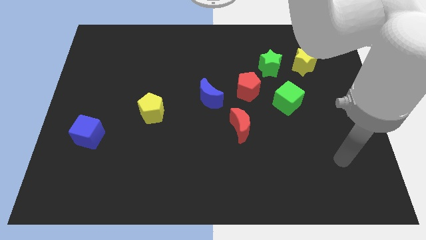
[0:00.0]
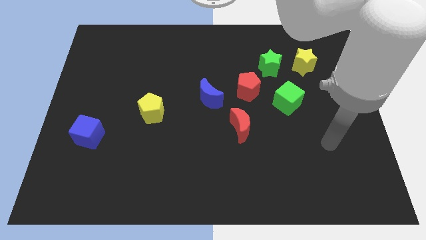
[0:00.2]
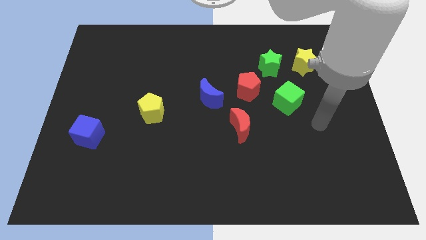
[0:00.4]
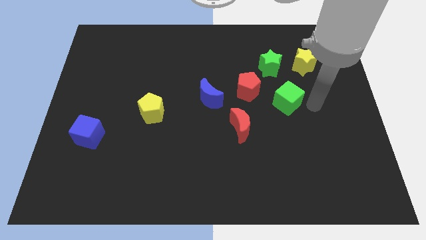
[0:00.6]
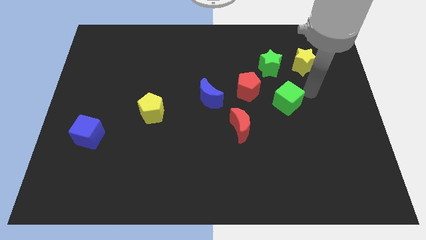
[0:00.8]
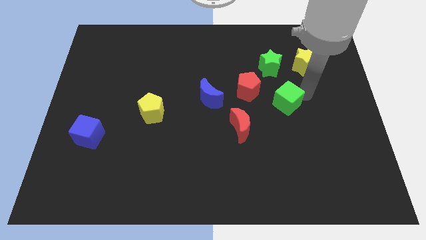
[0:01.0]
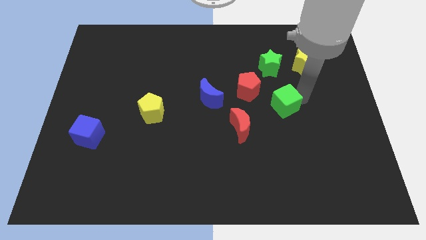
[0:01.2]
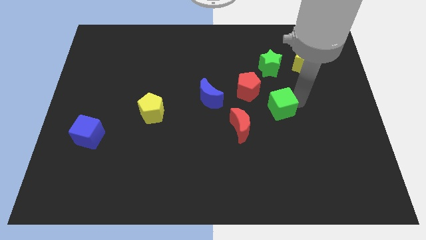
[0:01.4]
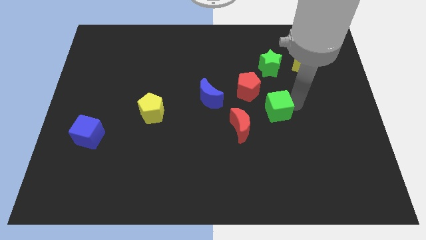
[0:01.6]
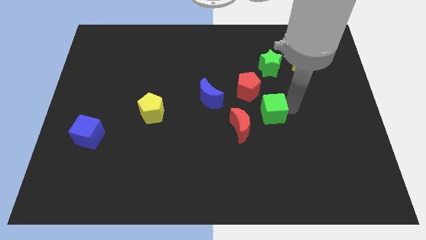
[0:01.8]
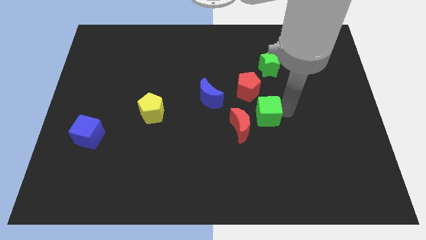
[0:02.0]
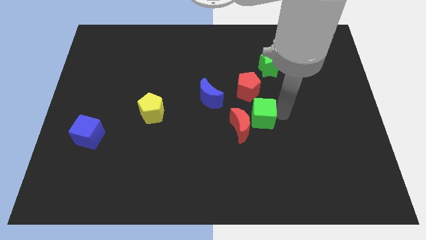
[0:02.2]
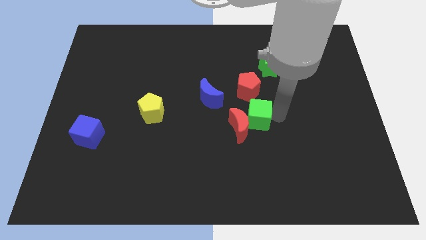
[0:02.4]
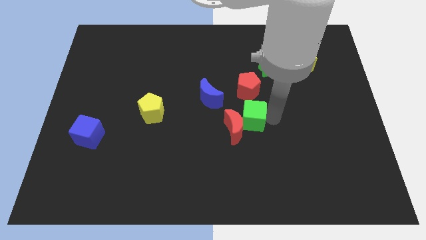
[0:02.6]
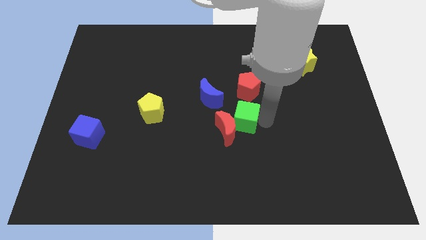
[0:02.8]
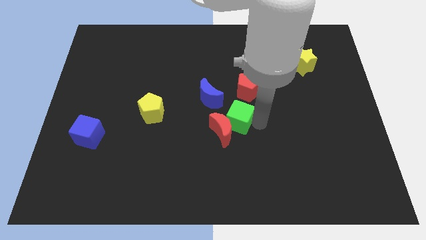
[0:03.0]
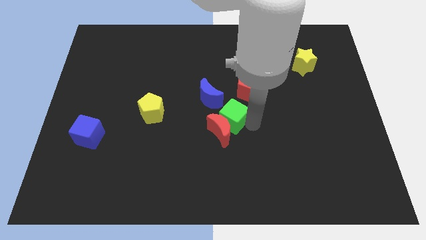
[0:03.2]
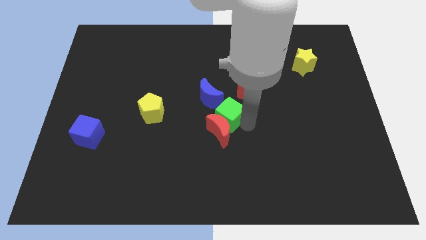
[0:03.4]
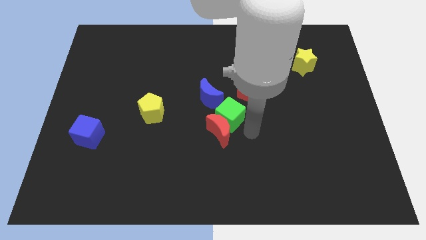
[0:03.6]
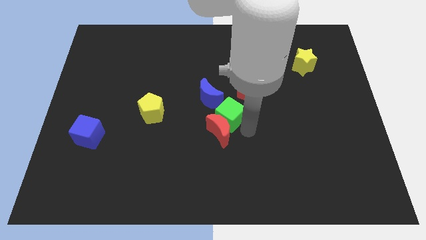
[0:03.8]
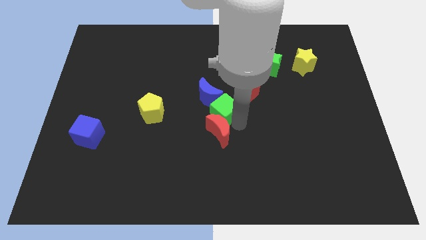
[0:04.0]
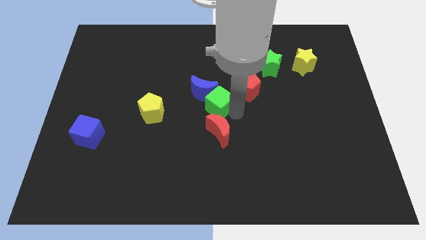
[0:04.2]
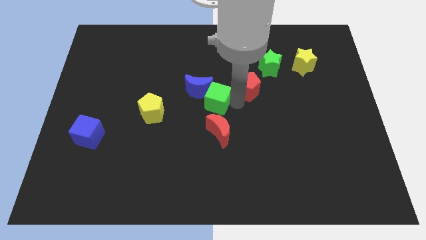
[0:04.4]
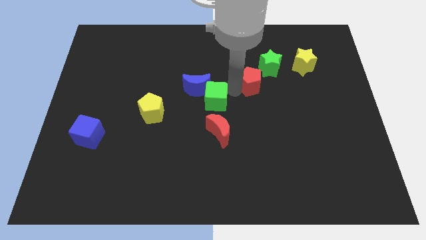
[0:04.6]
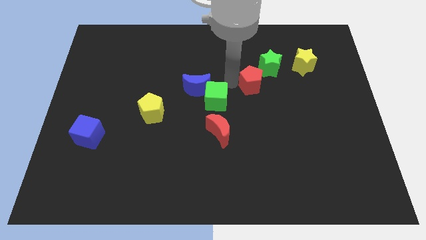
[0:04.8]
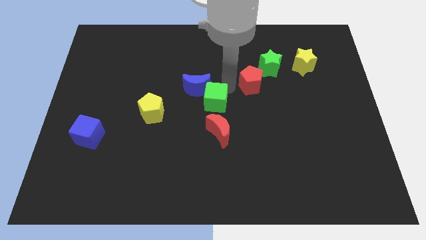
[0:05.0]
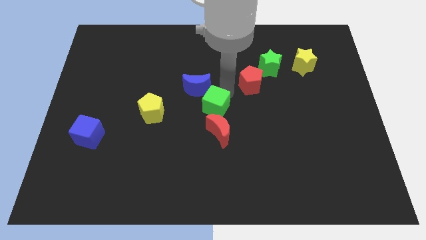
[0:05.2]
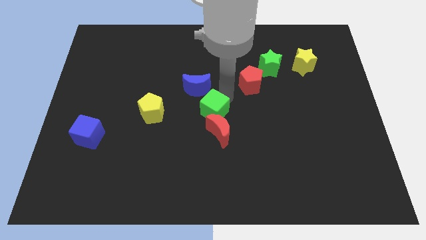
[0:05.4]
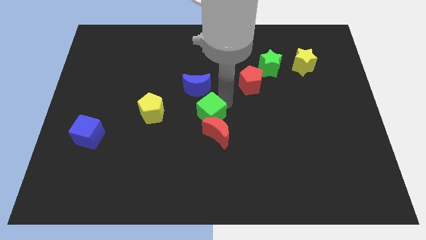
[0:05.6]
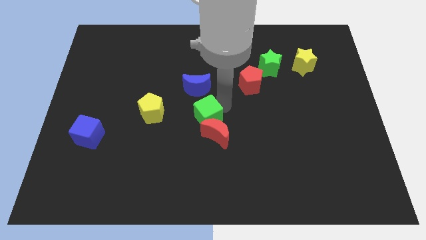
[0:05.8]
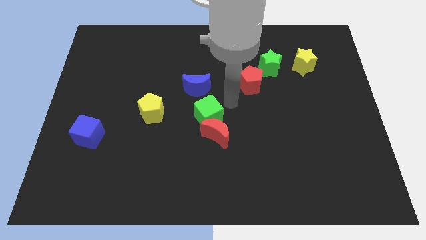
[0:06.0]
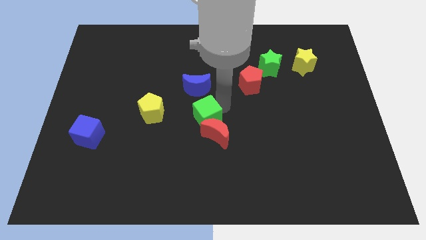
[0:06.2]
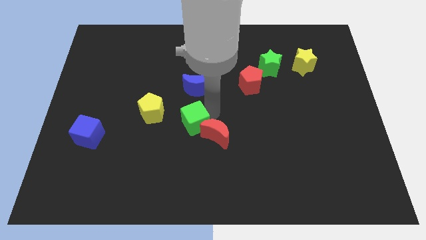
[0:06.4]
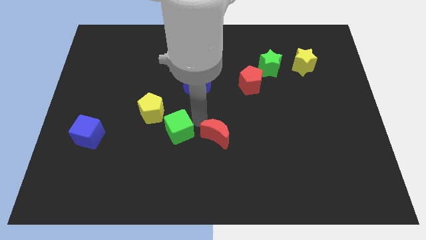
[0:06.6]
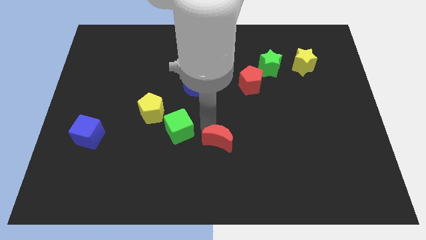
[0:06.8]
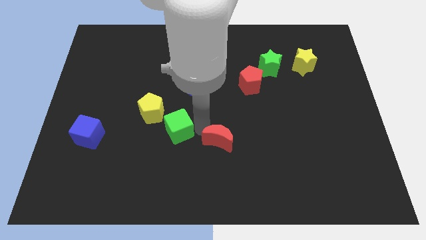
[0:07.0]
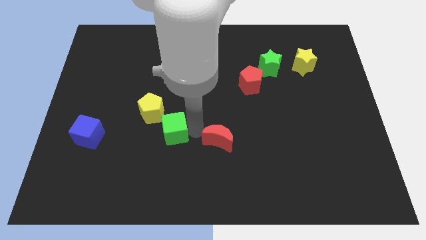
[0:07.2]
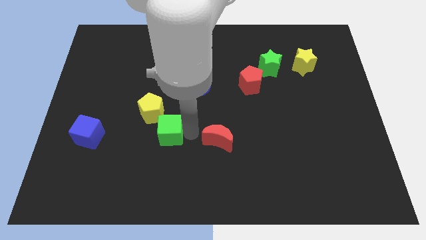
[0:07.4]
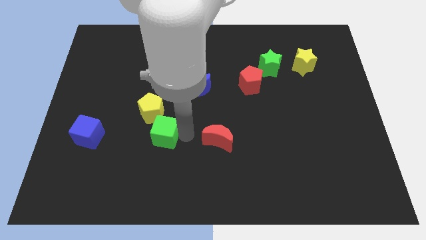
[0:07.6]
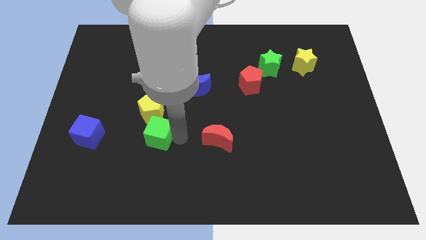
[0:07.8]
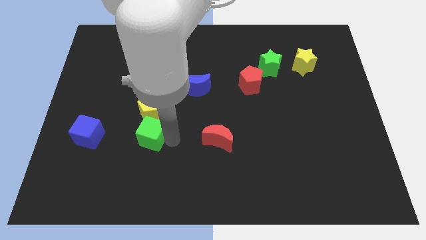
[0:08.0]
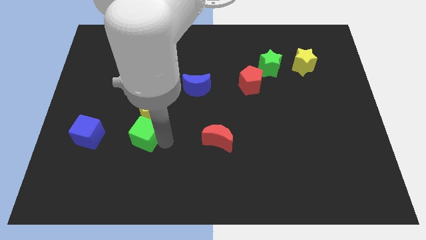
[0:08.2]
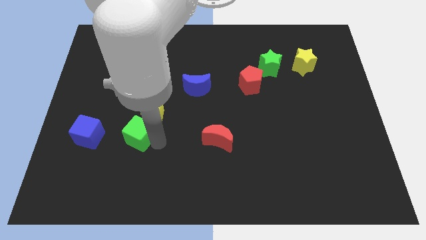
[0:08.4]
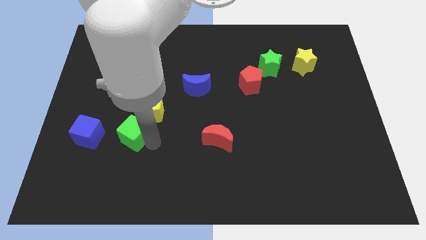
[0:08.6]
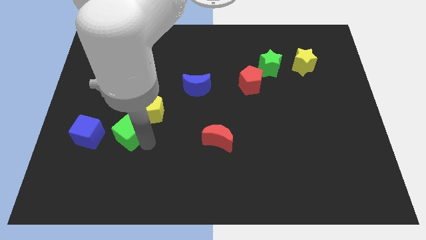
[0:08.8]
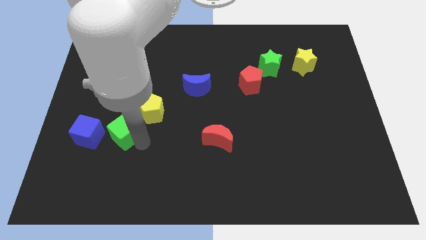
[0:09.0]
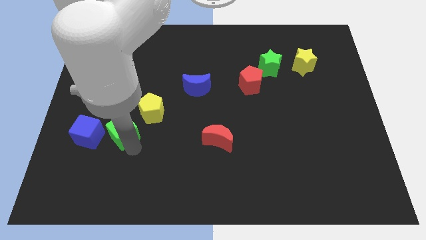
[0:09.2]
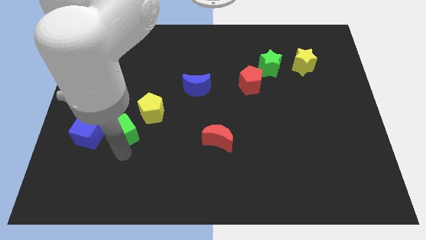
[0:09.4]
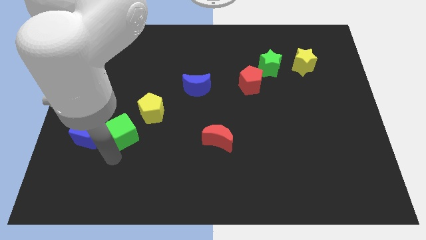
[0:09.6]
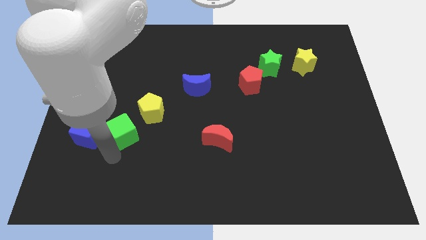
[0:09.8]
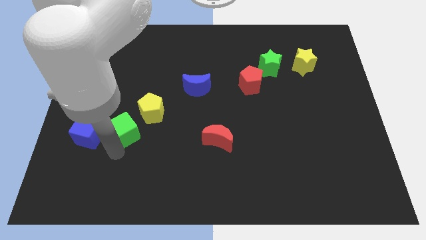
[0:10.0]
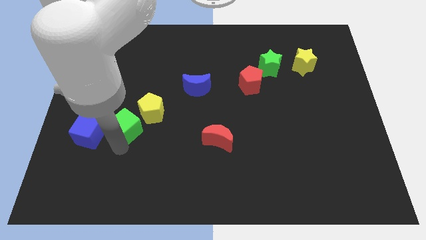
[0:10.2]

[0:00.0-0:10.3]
push the green cube just left of the yellow pentagon

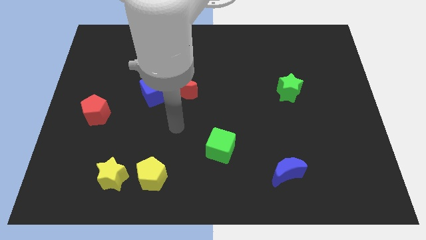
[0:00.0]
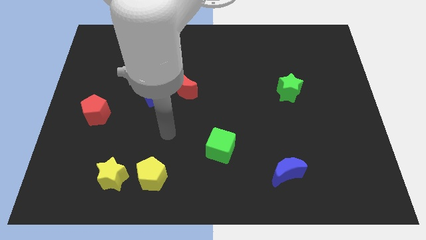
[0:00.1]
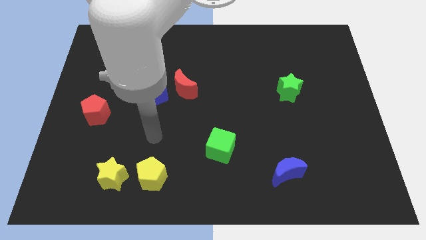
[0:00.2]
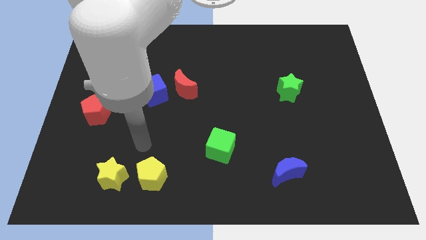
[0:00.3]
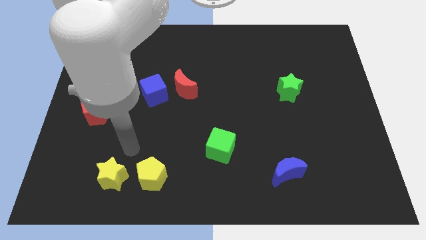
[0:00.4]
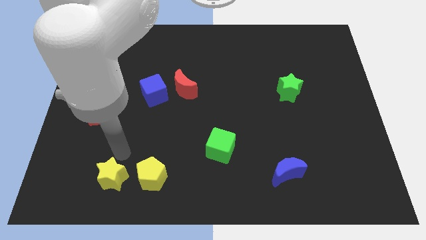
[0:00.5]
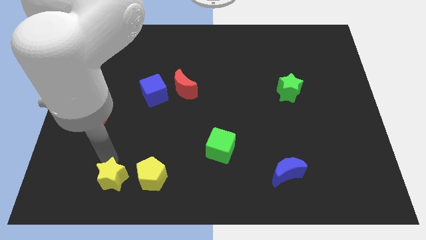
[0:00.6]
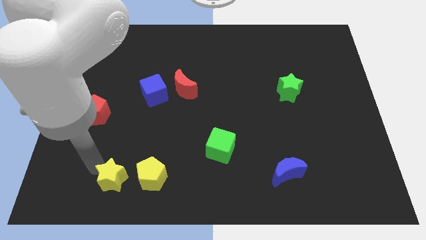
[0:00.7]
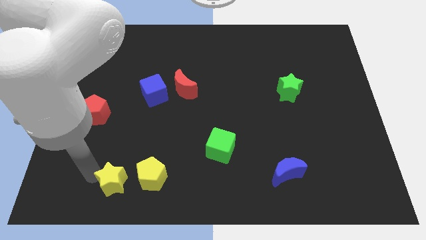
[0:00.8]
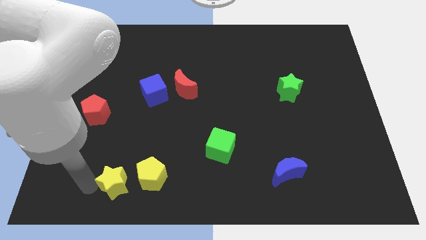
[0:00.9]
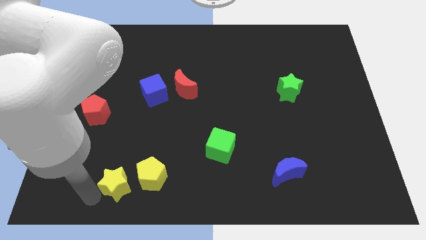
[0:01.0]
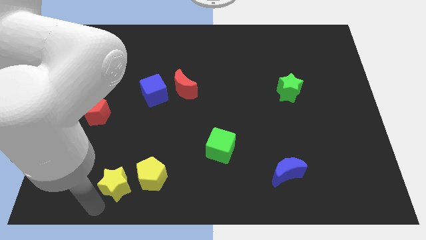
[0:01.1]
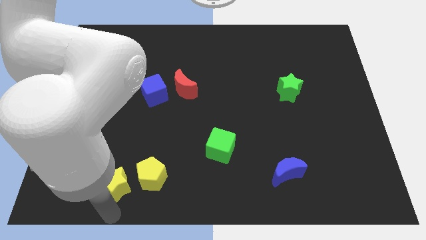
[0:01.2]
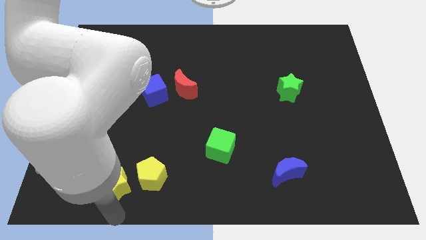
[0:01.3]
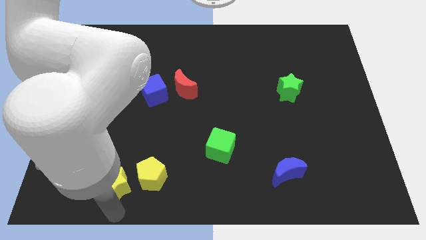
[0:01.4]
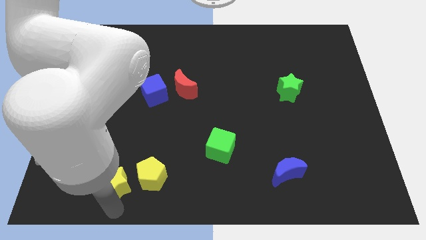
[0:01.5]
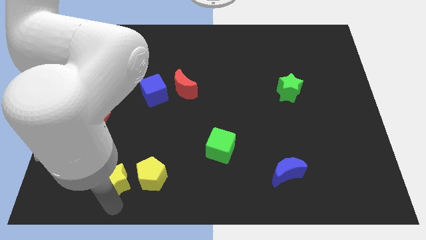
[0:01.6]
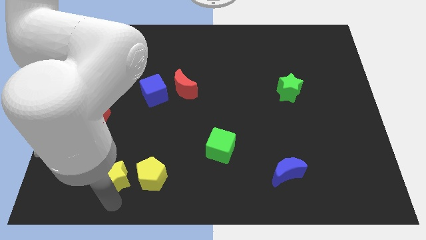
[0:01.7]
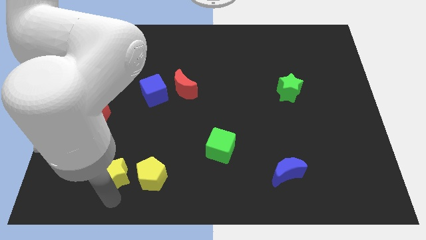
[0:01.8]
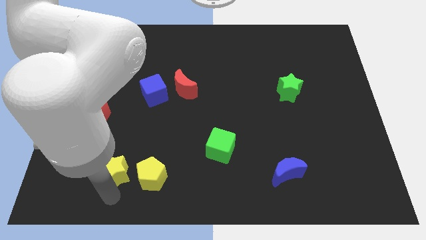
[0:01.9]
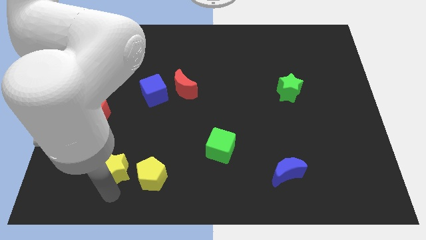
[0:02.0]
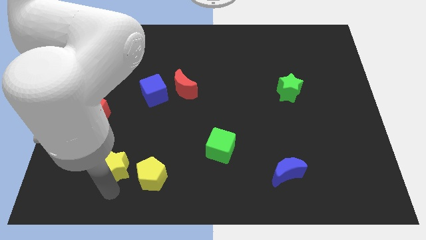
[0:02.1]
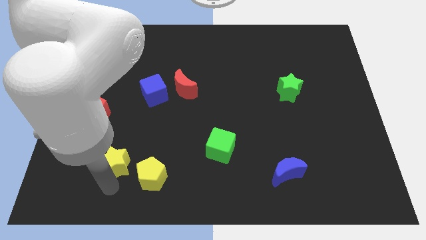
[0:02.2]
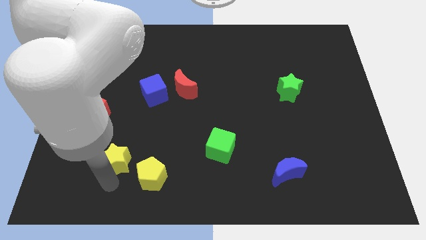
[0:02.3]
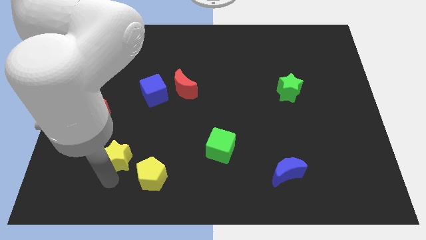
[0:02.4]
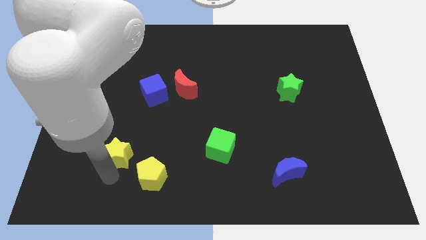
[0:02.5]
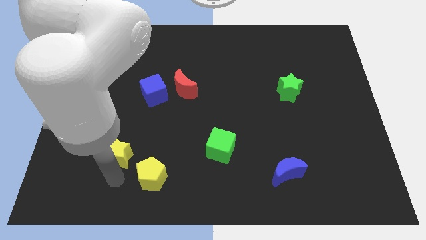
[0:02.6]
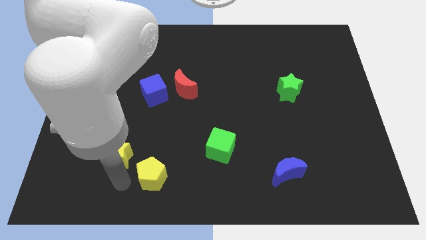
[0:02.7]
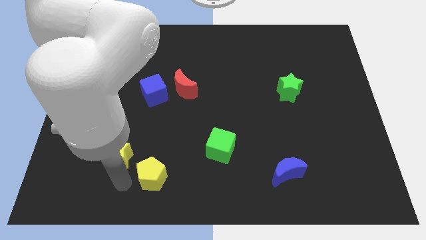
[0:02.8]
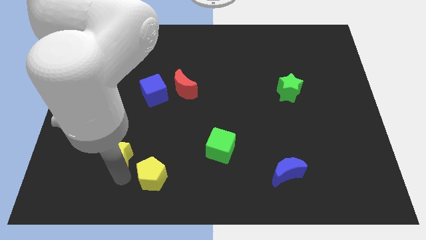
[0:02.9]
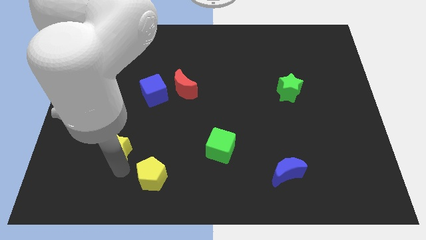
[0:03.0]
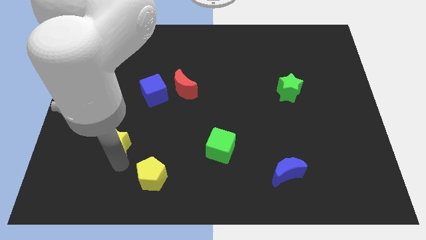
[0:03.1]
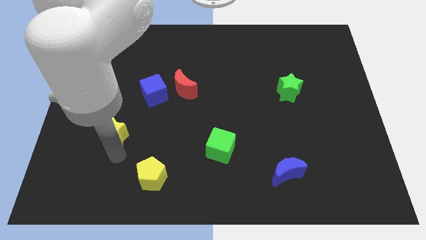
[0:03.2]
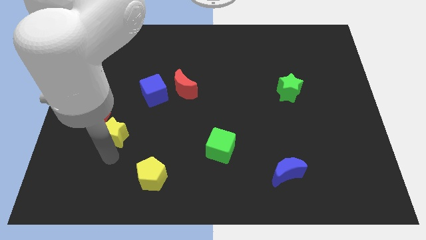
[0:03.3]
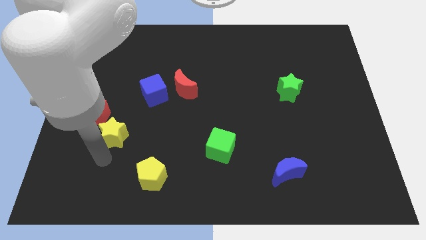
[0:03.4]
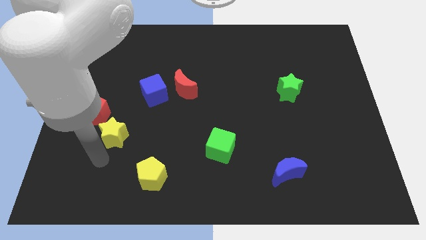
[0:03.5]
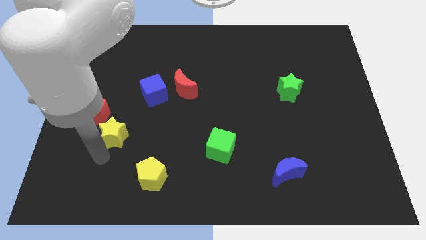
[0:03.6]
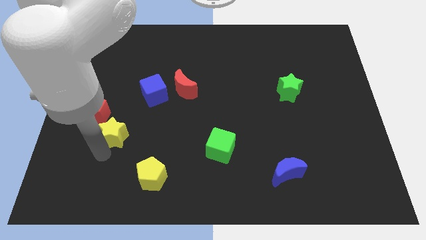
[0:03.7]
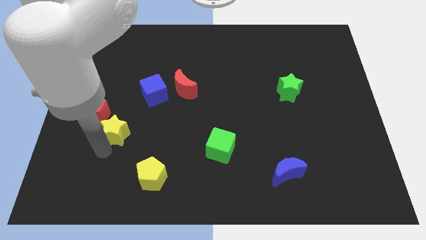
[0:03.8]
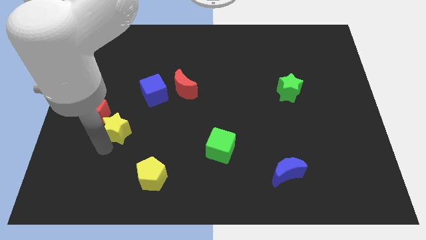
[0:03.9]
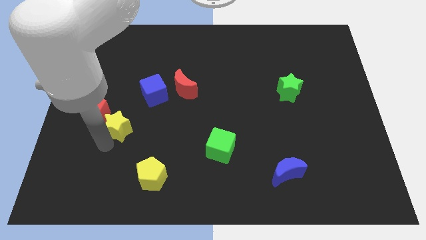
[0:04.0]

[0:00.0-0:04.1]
slide the yellow star to the bottom left side of the blue cube
